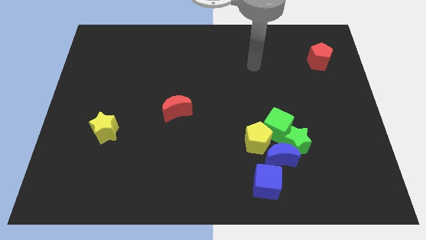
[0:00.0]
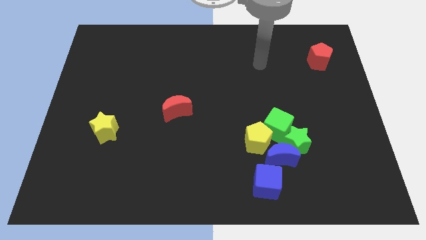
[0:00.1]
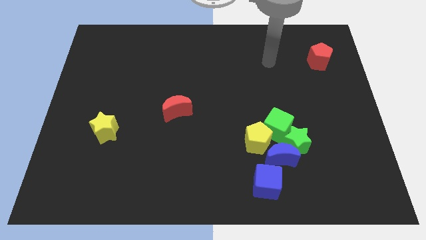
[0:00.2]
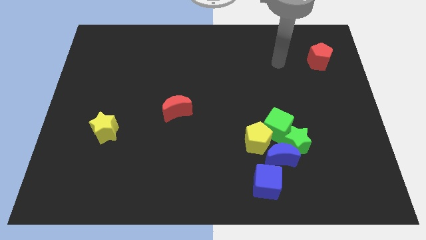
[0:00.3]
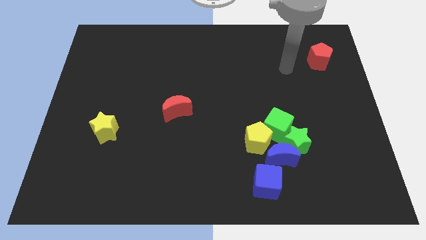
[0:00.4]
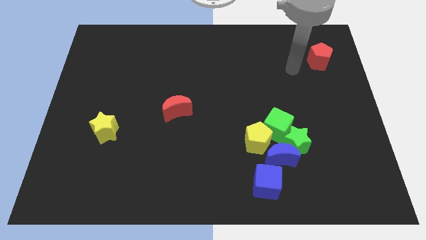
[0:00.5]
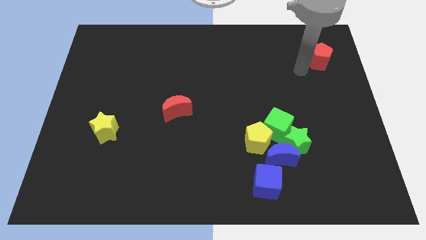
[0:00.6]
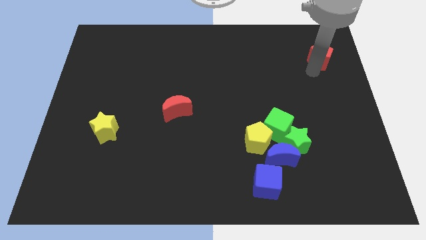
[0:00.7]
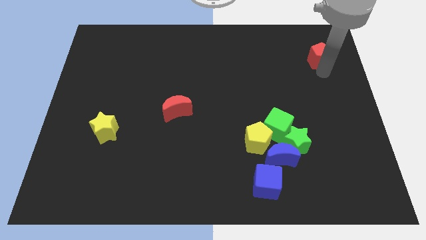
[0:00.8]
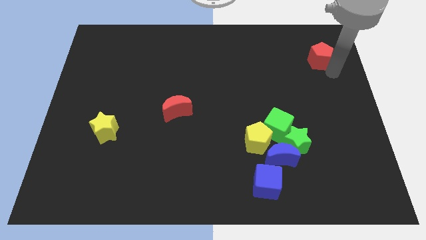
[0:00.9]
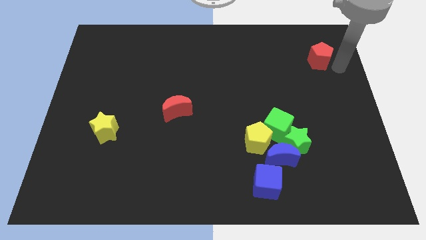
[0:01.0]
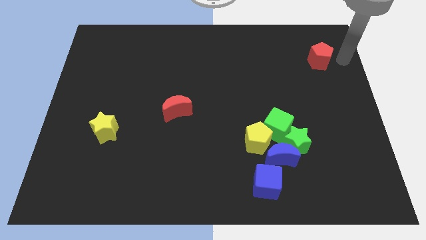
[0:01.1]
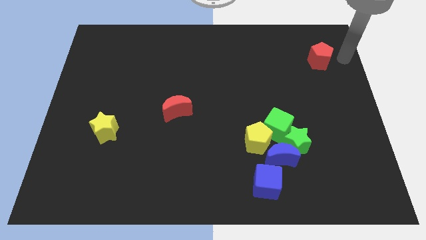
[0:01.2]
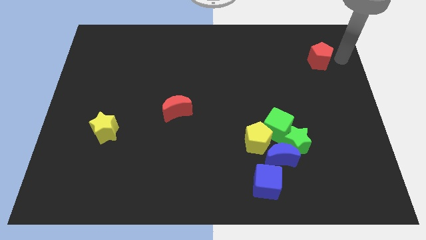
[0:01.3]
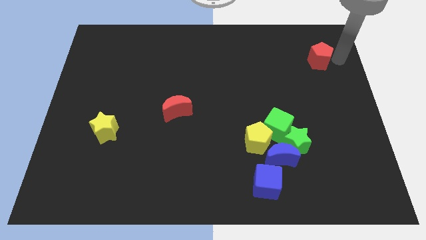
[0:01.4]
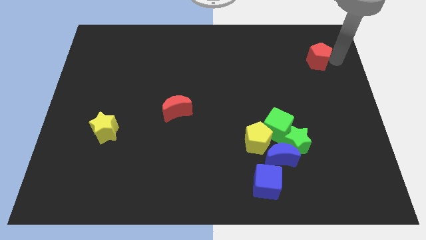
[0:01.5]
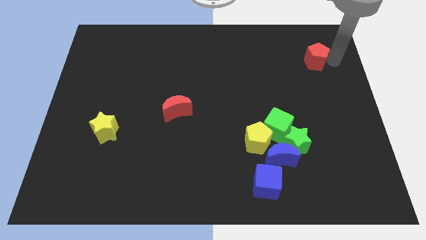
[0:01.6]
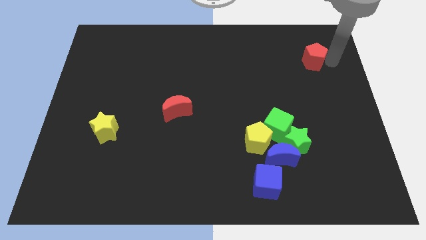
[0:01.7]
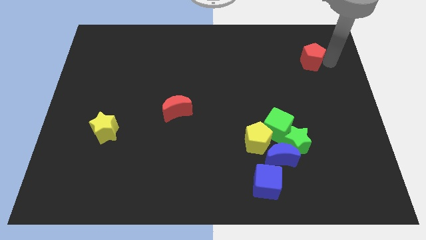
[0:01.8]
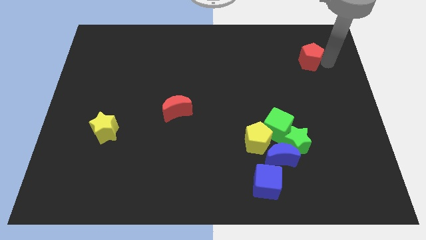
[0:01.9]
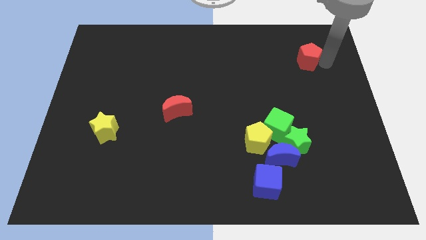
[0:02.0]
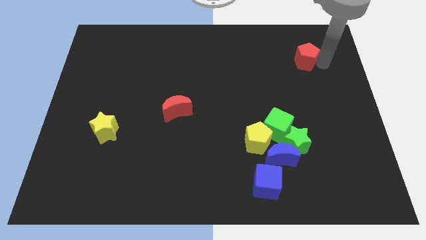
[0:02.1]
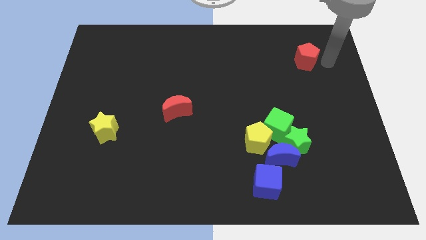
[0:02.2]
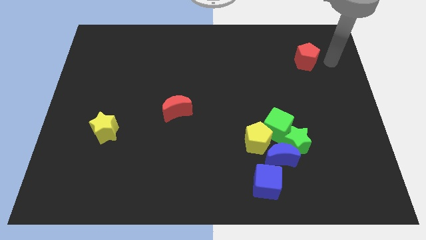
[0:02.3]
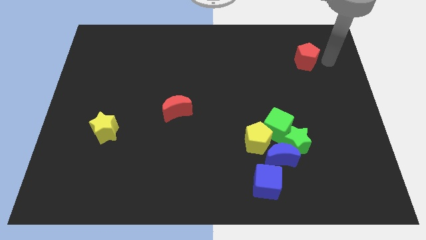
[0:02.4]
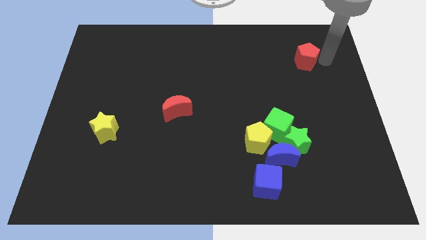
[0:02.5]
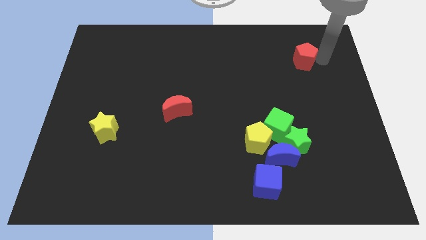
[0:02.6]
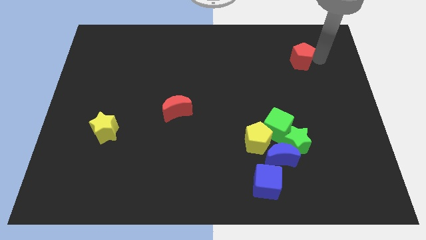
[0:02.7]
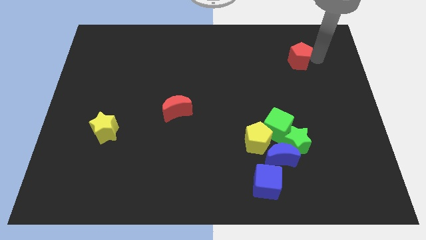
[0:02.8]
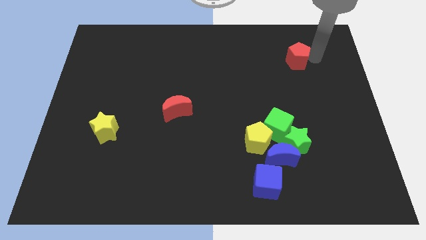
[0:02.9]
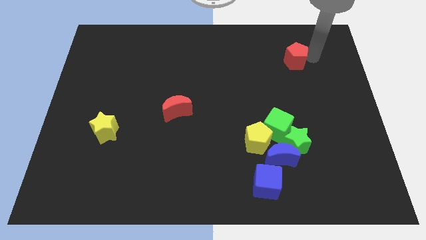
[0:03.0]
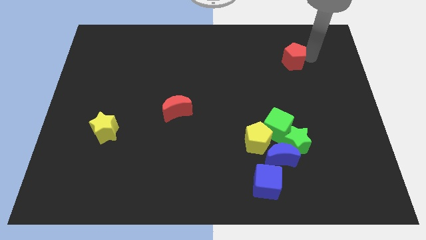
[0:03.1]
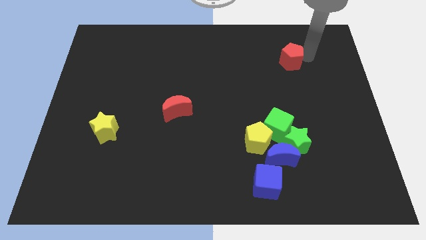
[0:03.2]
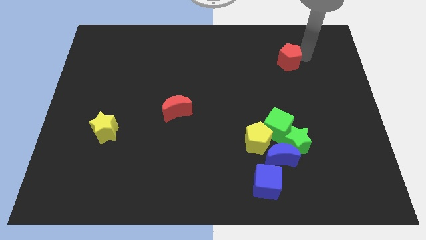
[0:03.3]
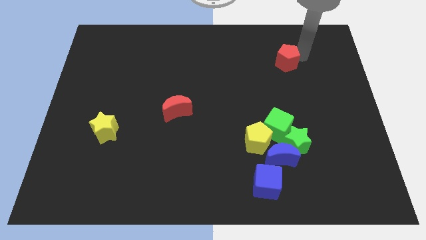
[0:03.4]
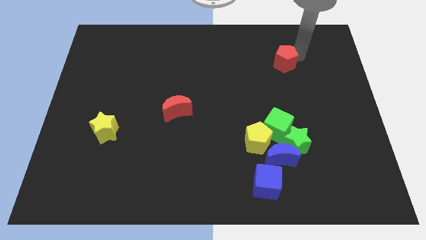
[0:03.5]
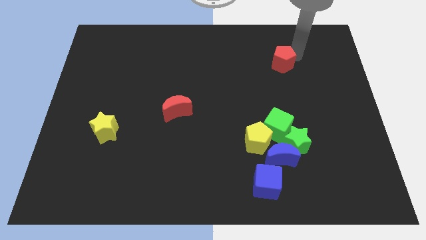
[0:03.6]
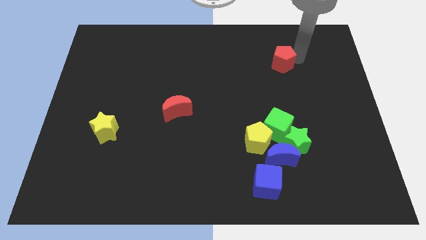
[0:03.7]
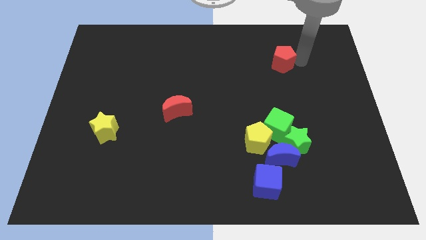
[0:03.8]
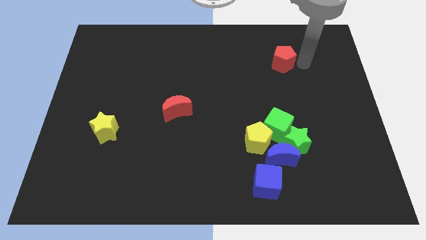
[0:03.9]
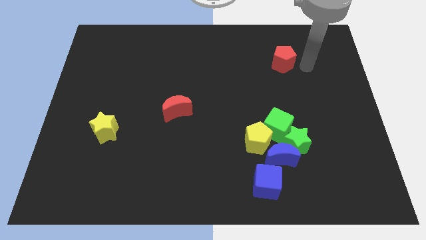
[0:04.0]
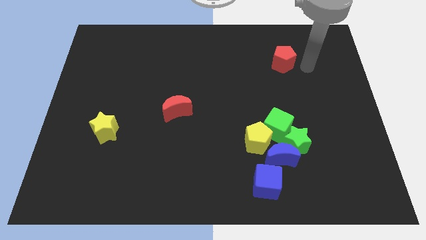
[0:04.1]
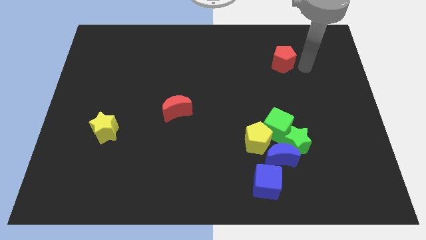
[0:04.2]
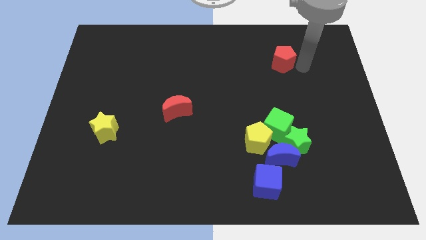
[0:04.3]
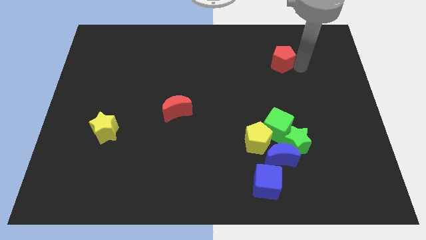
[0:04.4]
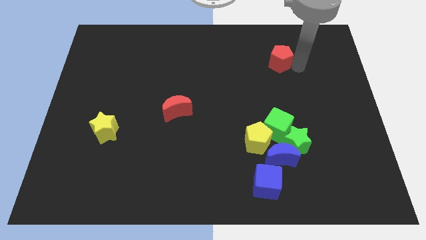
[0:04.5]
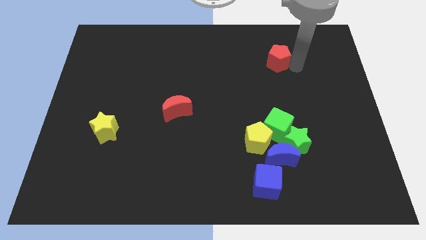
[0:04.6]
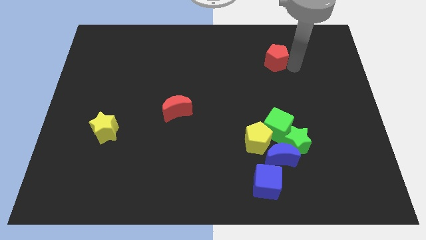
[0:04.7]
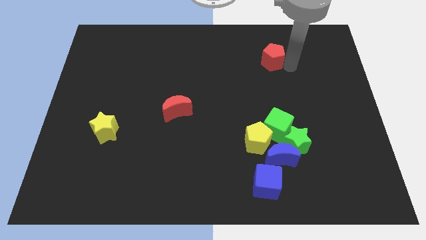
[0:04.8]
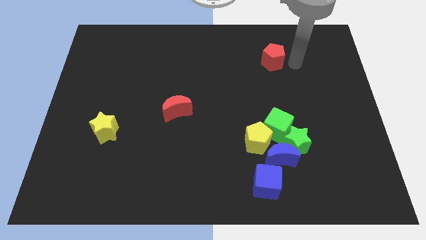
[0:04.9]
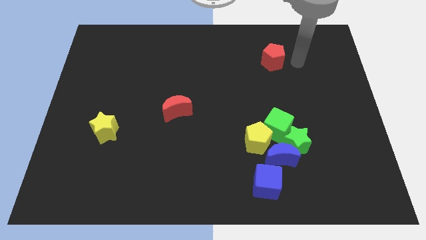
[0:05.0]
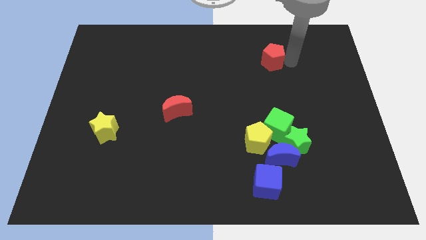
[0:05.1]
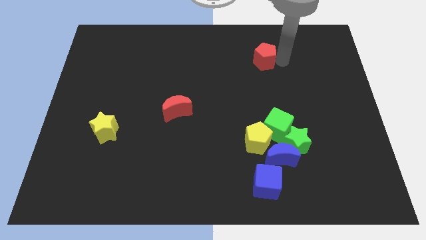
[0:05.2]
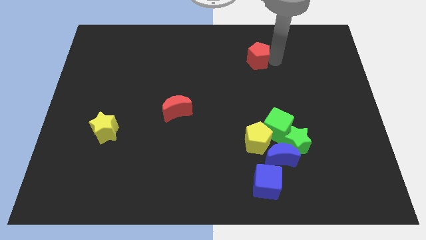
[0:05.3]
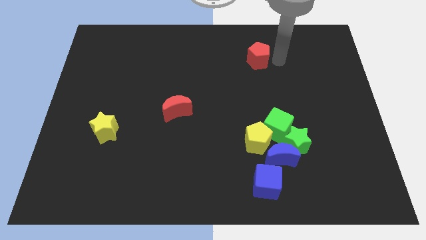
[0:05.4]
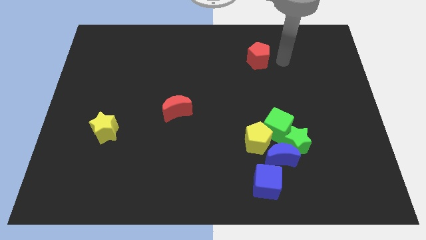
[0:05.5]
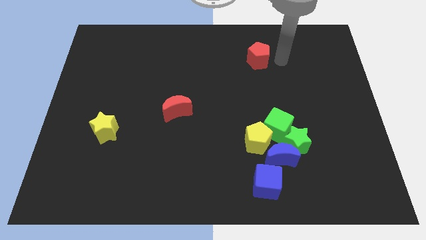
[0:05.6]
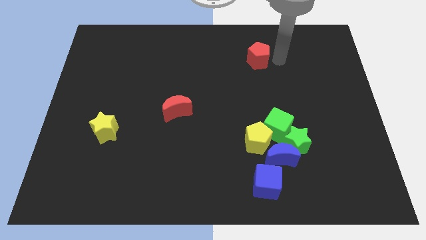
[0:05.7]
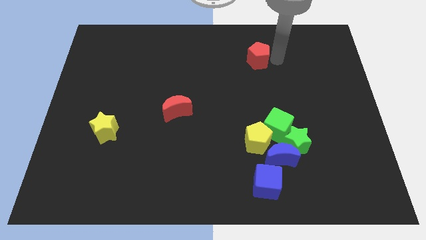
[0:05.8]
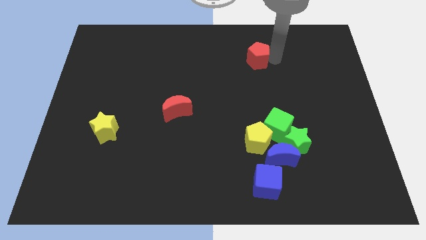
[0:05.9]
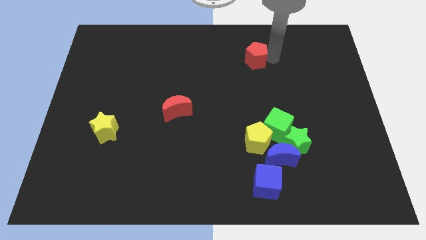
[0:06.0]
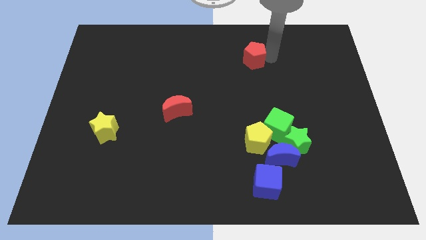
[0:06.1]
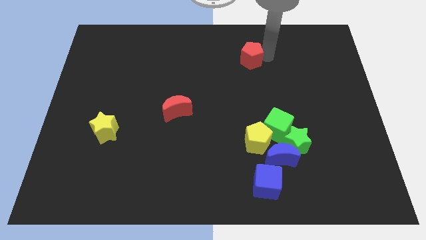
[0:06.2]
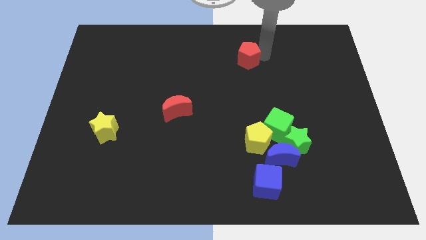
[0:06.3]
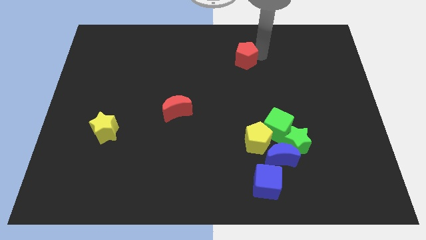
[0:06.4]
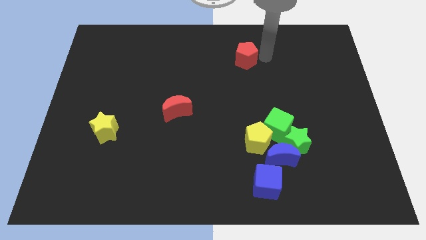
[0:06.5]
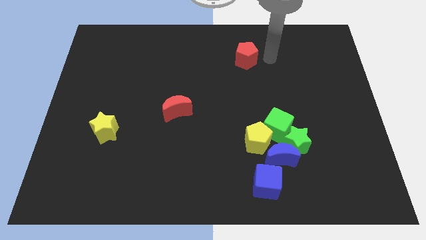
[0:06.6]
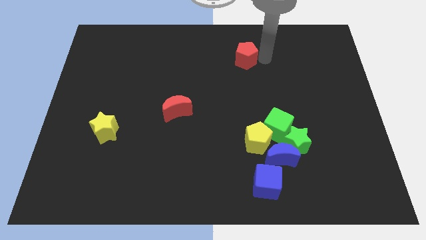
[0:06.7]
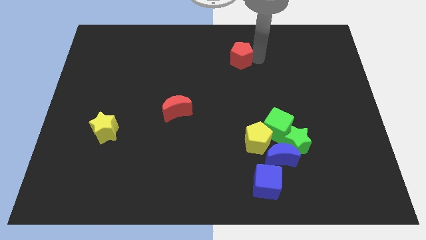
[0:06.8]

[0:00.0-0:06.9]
push the red pentagon left

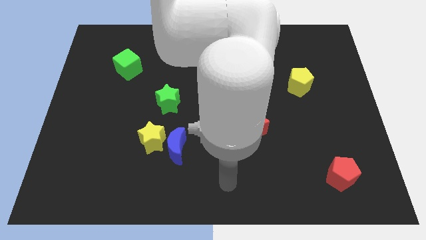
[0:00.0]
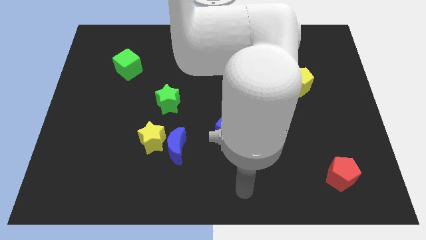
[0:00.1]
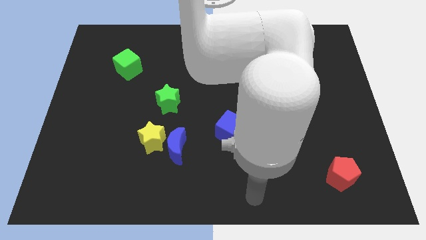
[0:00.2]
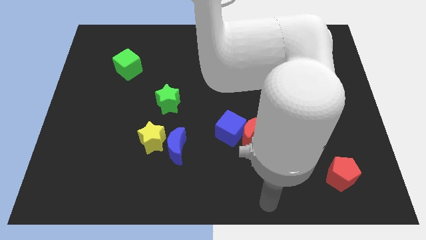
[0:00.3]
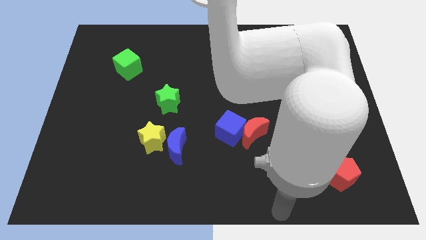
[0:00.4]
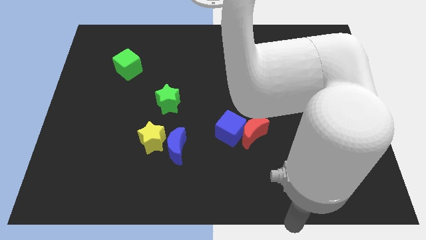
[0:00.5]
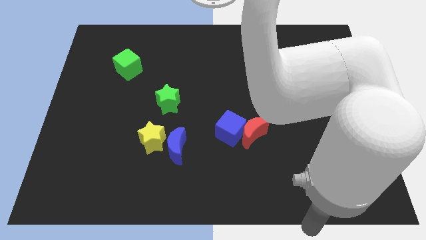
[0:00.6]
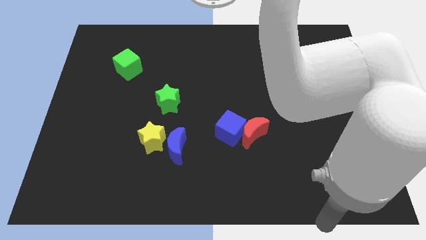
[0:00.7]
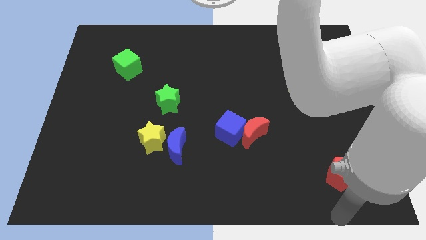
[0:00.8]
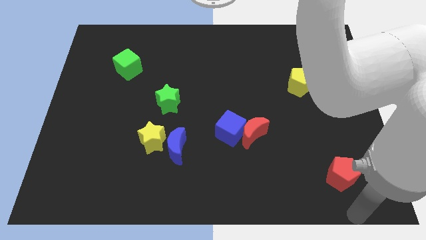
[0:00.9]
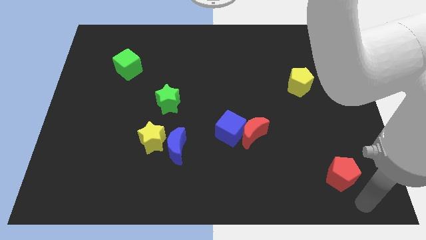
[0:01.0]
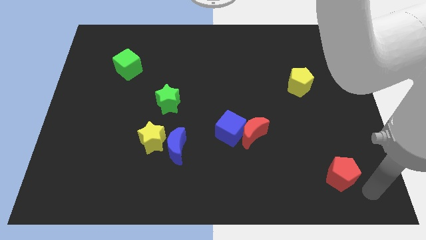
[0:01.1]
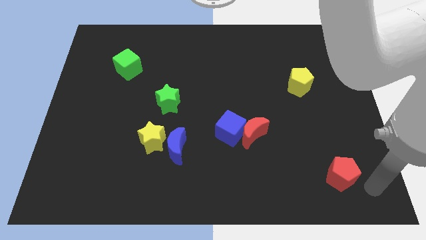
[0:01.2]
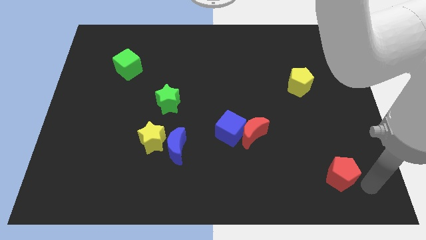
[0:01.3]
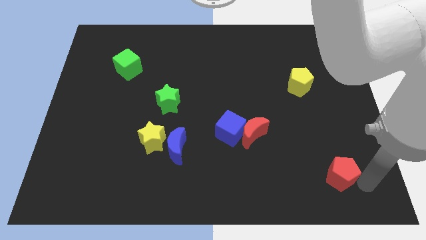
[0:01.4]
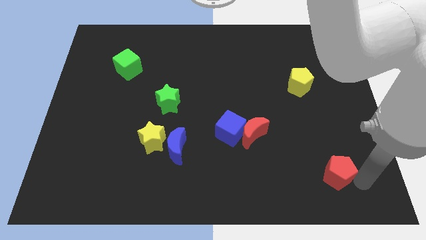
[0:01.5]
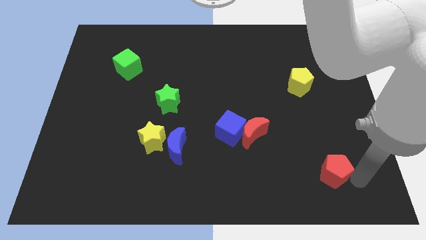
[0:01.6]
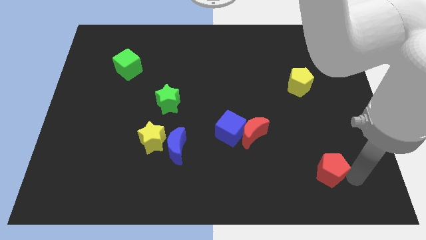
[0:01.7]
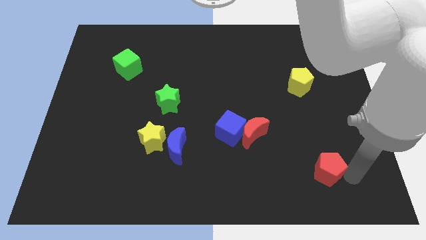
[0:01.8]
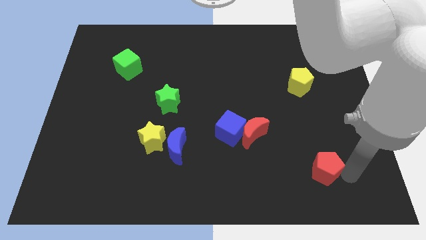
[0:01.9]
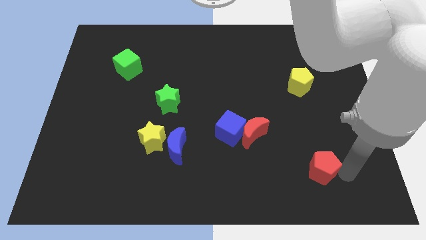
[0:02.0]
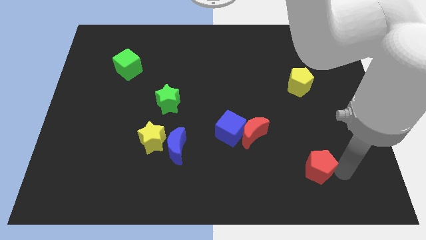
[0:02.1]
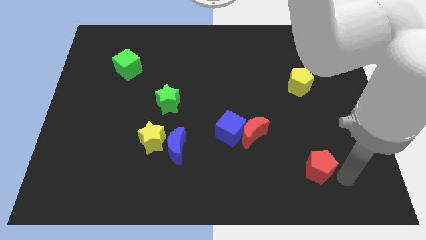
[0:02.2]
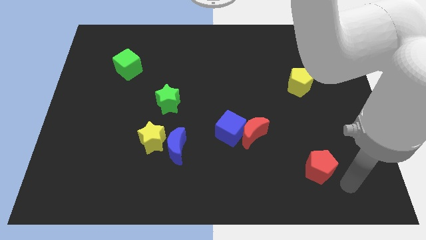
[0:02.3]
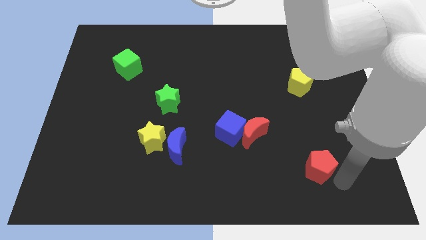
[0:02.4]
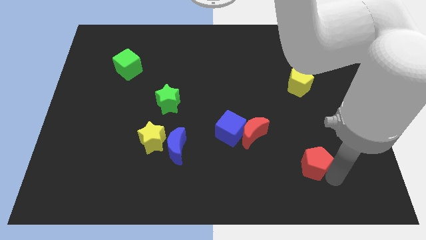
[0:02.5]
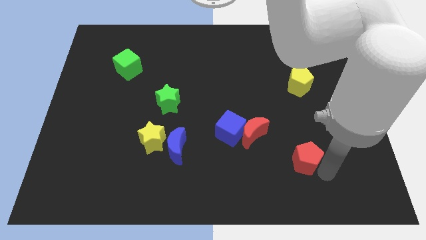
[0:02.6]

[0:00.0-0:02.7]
slightly move the red pentagon upwards and then left
